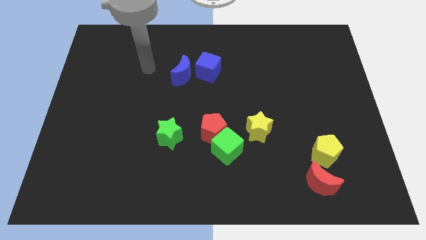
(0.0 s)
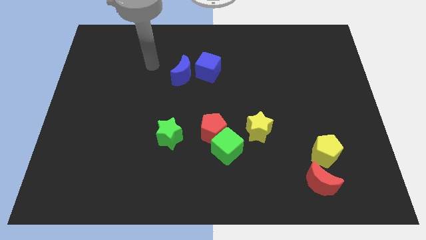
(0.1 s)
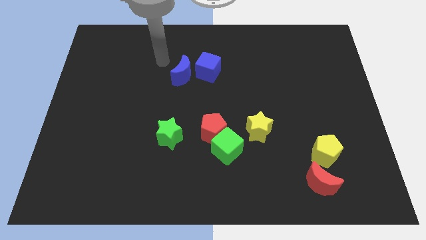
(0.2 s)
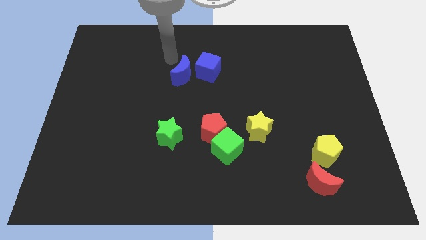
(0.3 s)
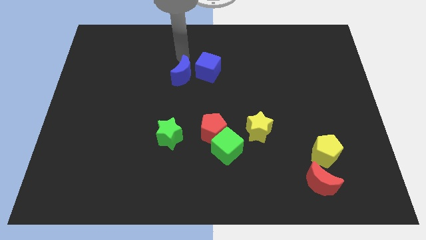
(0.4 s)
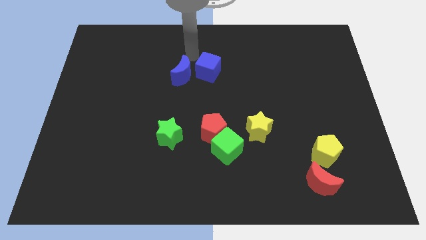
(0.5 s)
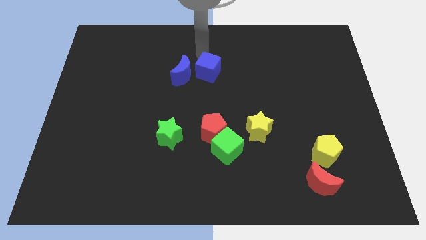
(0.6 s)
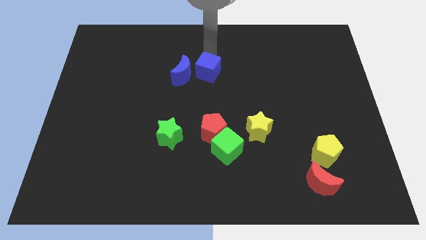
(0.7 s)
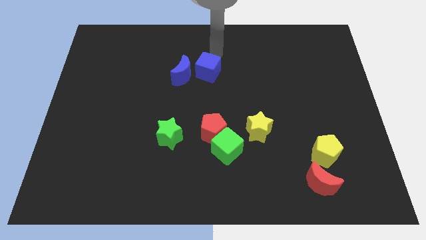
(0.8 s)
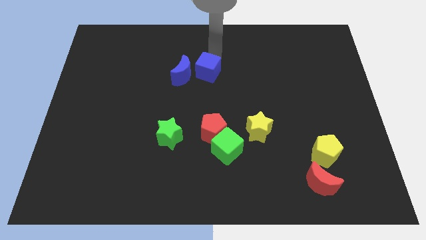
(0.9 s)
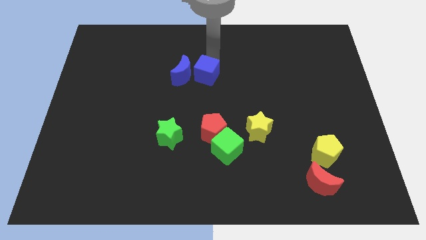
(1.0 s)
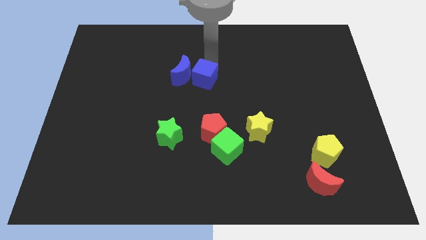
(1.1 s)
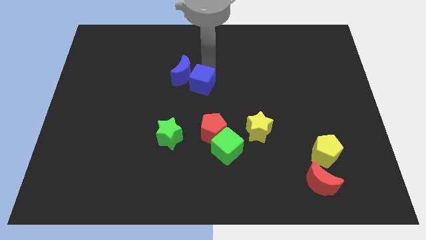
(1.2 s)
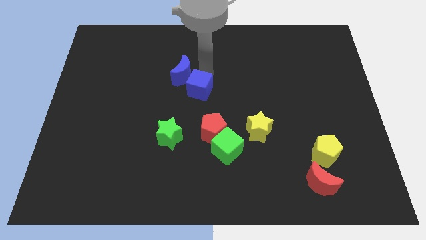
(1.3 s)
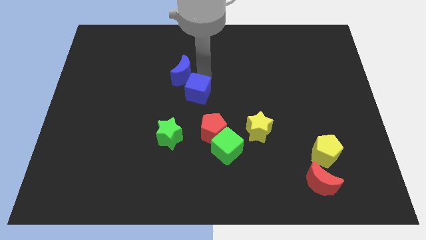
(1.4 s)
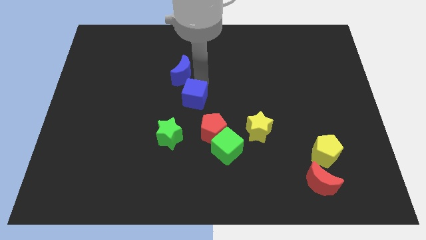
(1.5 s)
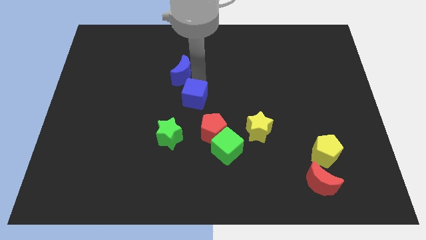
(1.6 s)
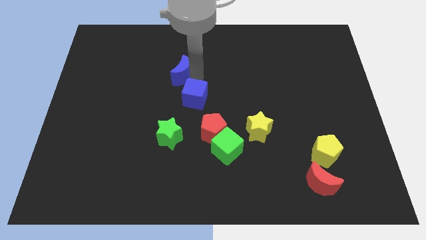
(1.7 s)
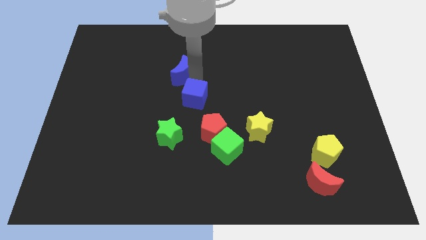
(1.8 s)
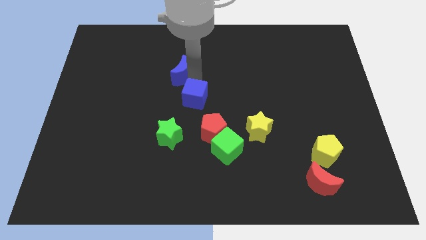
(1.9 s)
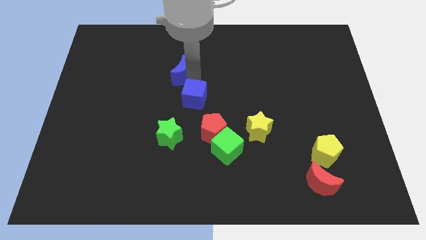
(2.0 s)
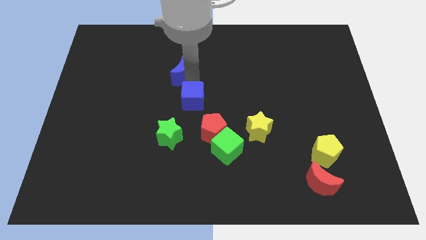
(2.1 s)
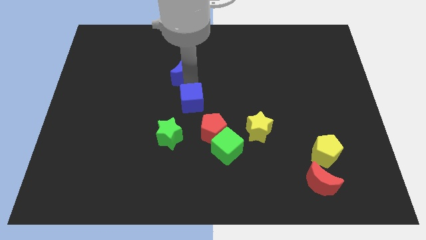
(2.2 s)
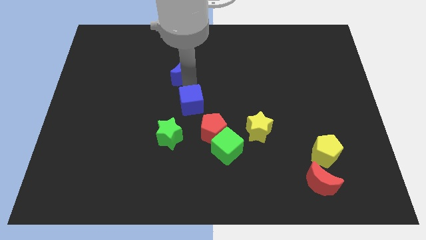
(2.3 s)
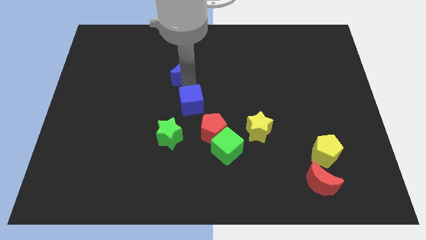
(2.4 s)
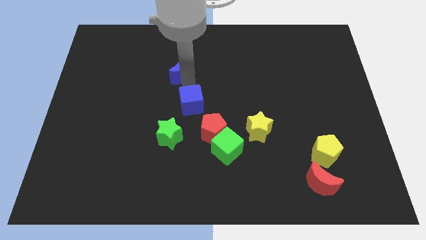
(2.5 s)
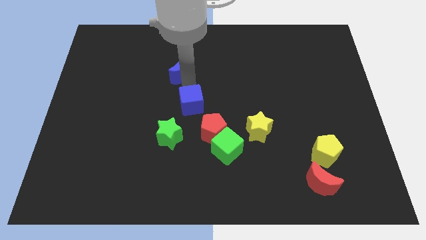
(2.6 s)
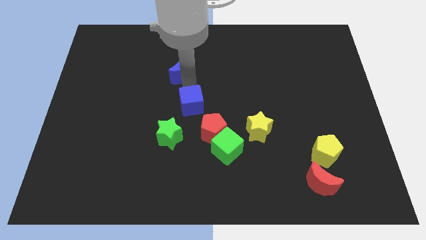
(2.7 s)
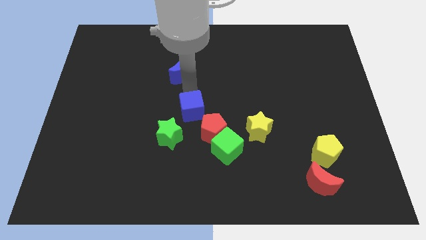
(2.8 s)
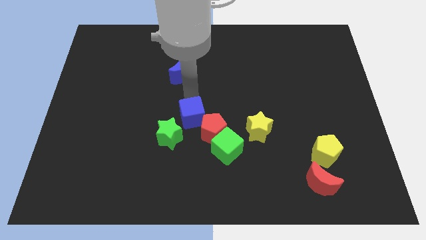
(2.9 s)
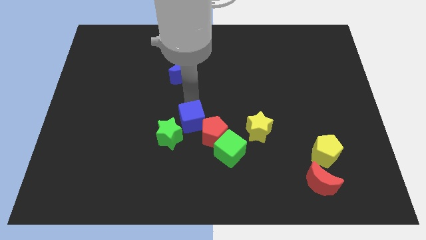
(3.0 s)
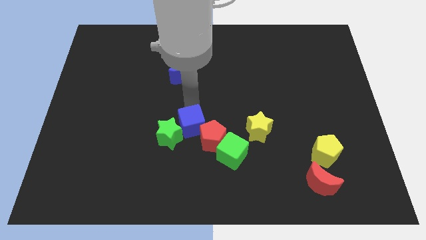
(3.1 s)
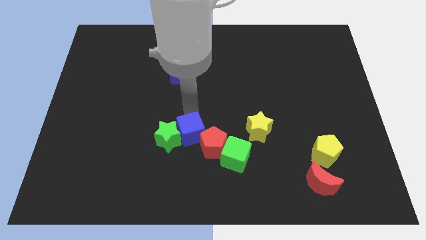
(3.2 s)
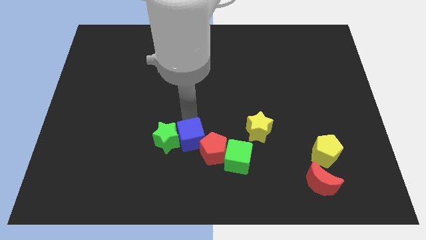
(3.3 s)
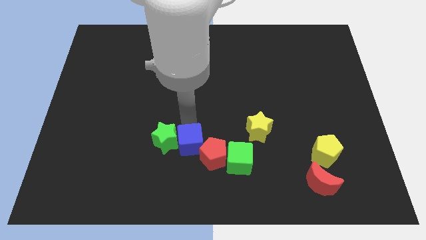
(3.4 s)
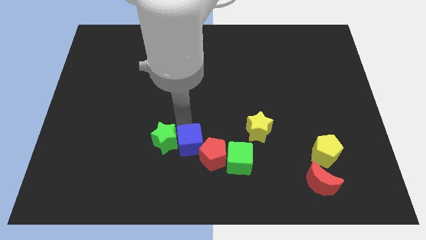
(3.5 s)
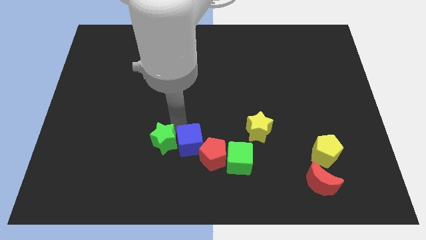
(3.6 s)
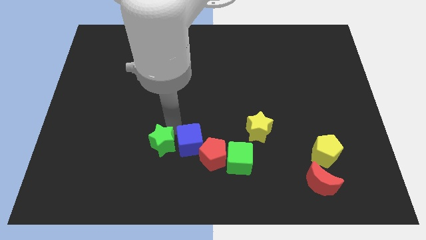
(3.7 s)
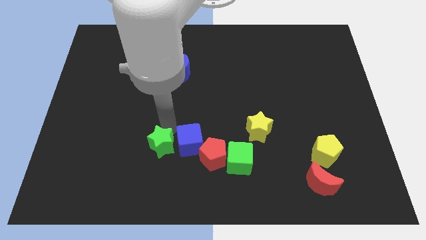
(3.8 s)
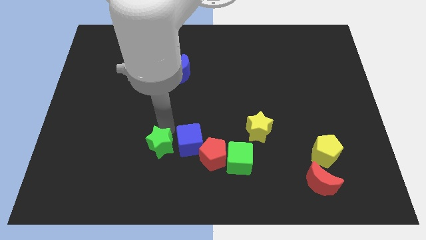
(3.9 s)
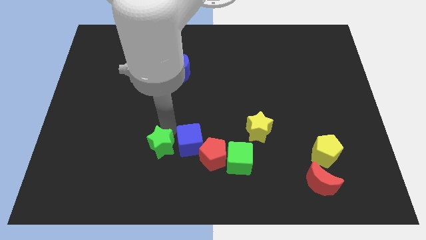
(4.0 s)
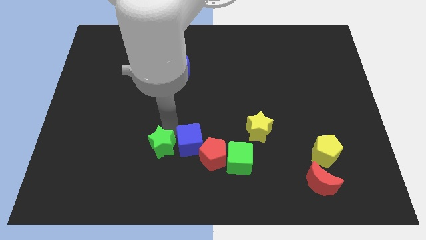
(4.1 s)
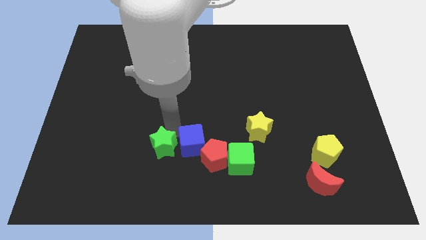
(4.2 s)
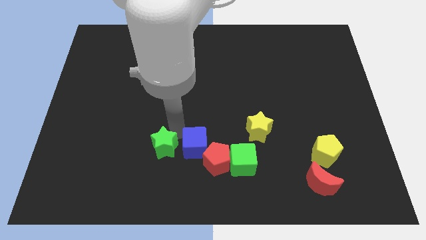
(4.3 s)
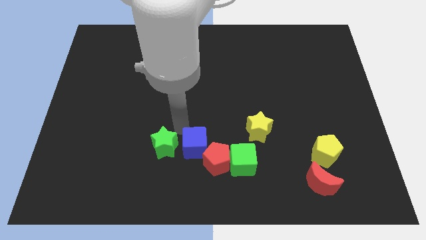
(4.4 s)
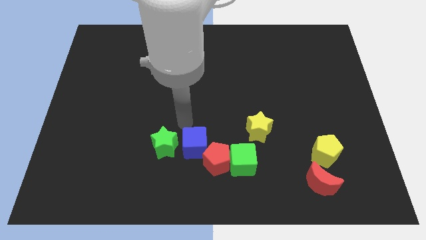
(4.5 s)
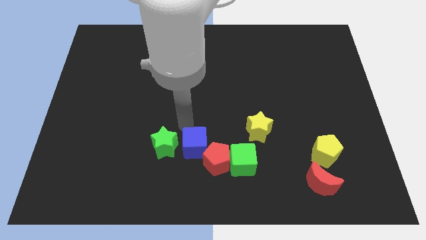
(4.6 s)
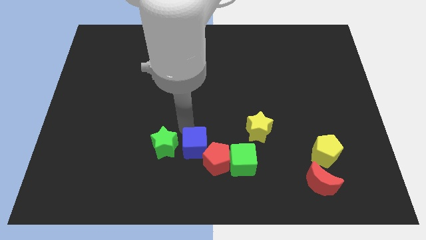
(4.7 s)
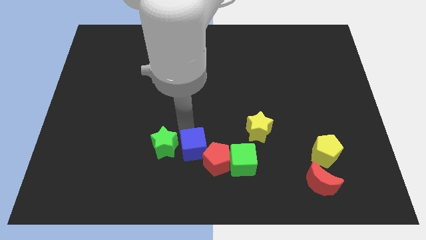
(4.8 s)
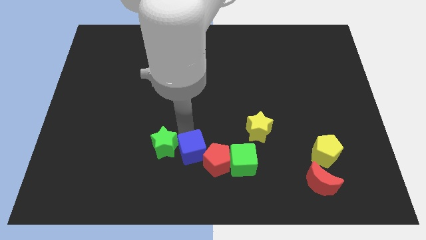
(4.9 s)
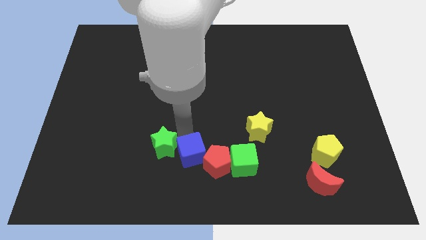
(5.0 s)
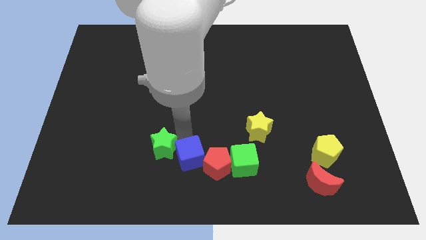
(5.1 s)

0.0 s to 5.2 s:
move the blue cube to the bottom

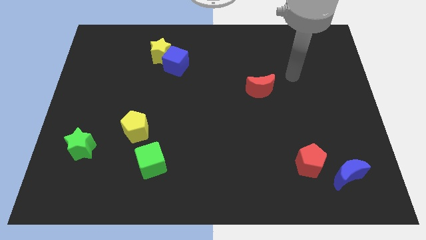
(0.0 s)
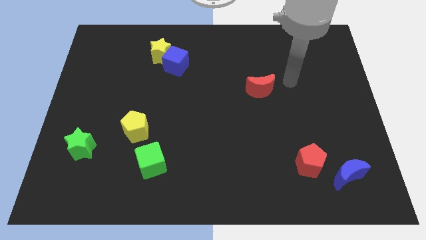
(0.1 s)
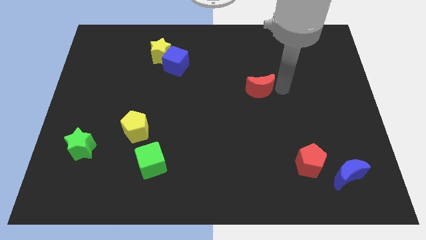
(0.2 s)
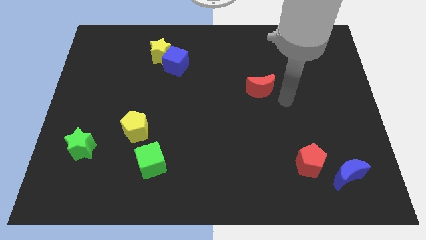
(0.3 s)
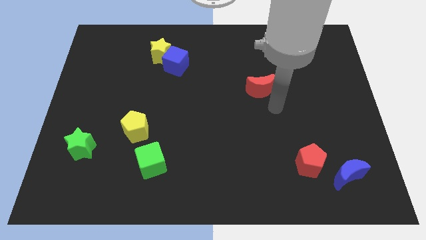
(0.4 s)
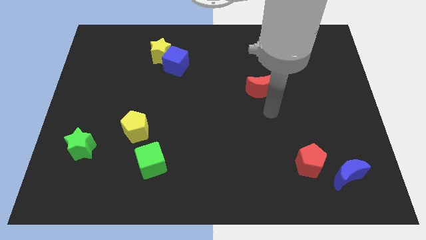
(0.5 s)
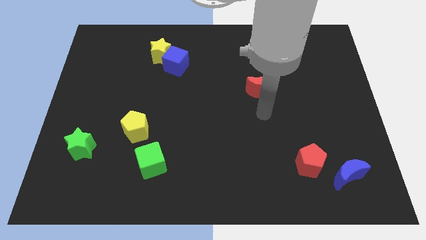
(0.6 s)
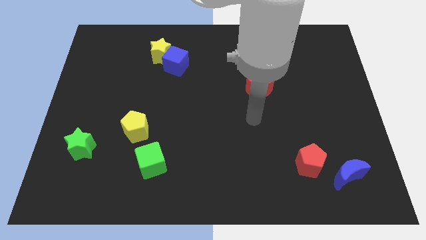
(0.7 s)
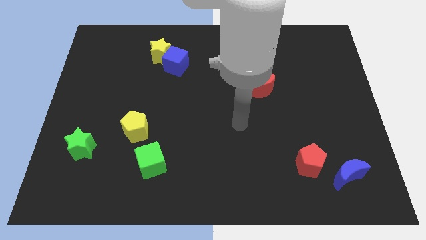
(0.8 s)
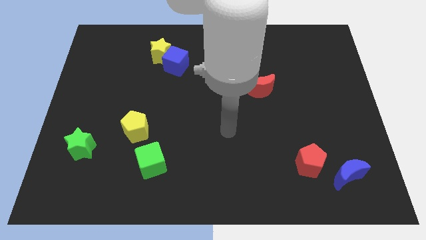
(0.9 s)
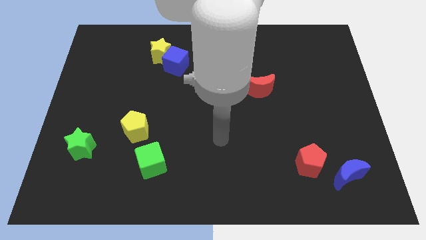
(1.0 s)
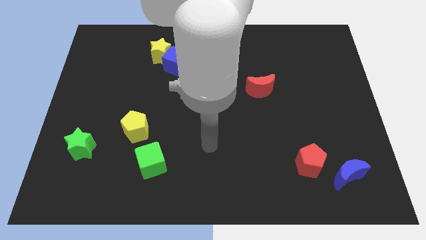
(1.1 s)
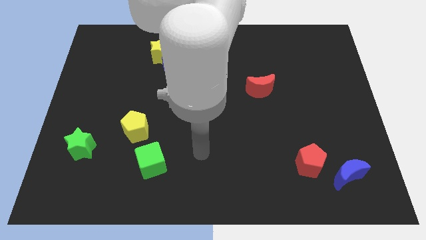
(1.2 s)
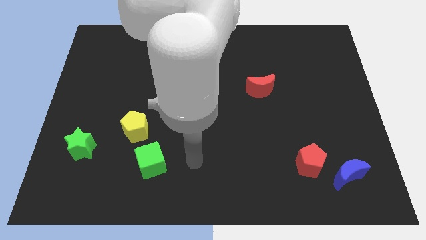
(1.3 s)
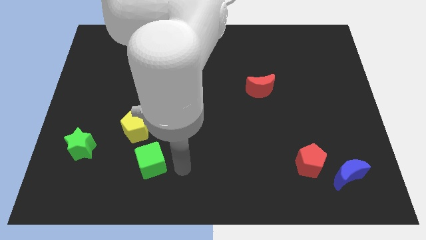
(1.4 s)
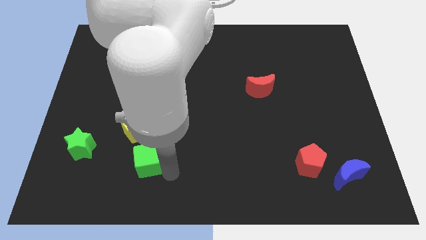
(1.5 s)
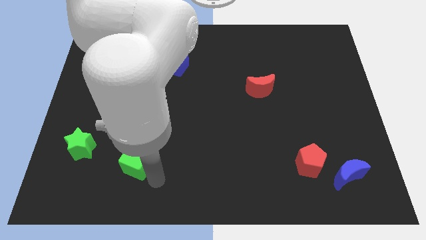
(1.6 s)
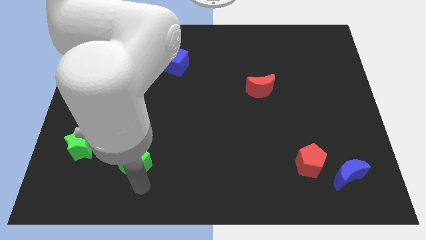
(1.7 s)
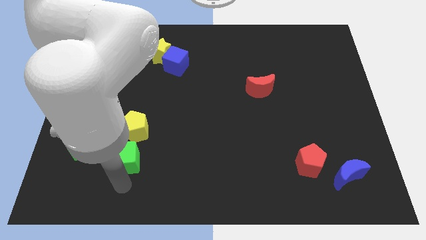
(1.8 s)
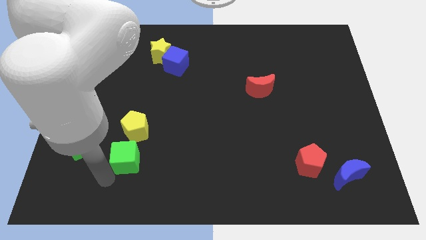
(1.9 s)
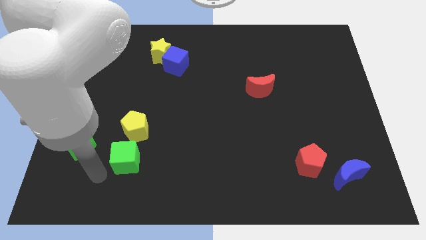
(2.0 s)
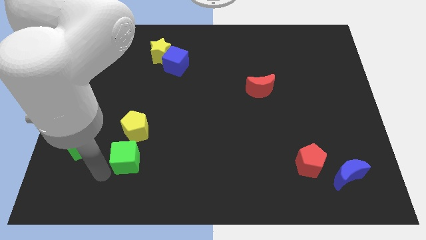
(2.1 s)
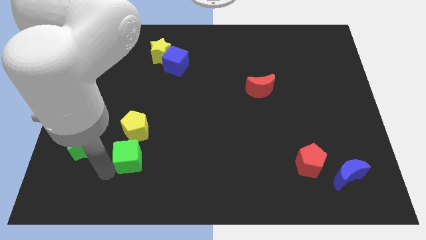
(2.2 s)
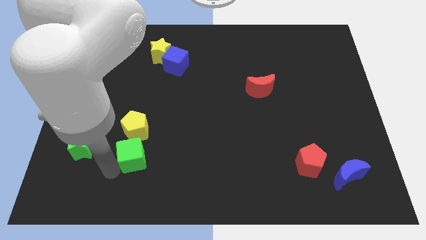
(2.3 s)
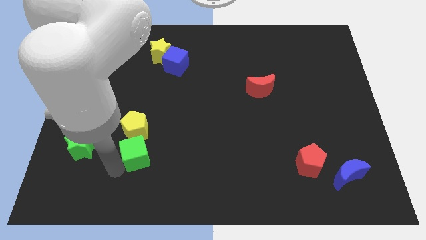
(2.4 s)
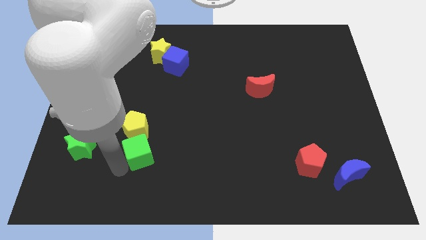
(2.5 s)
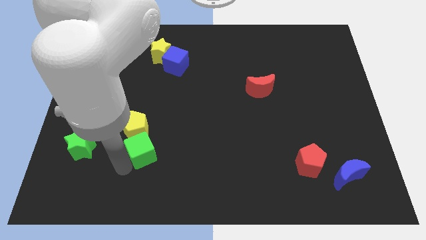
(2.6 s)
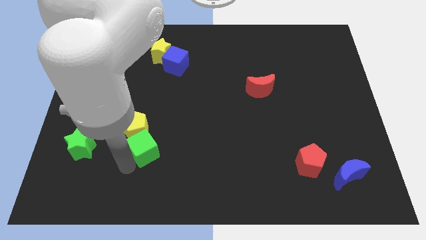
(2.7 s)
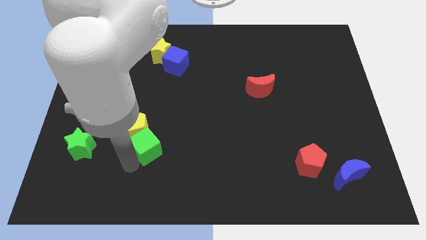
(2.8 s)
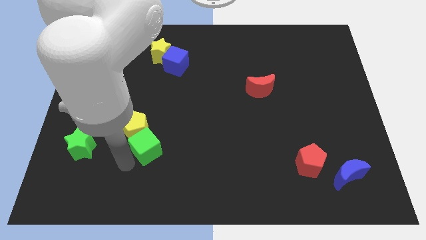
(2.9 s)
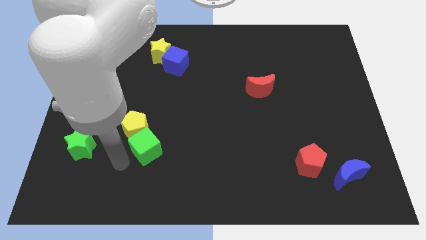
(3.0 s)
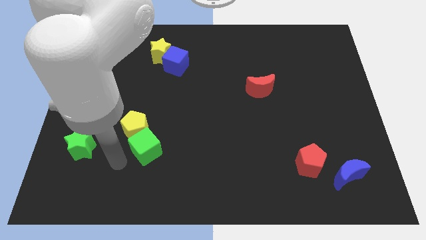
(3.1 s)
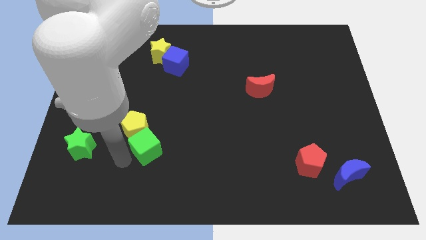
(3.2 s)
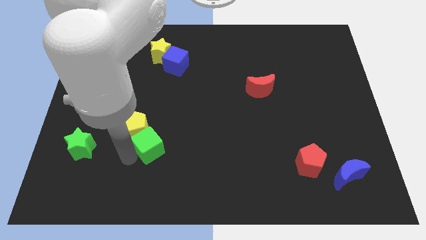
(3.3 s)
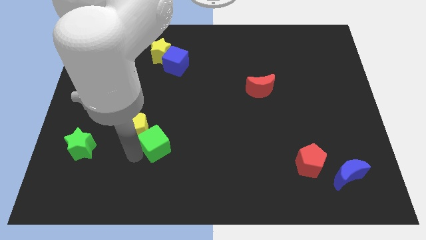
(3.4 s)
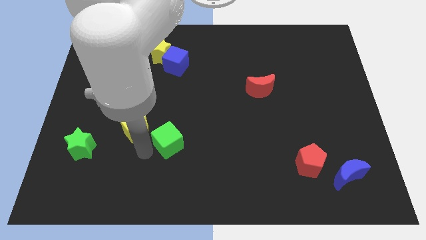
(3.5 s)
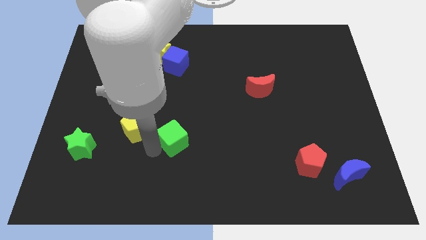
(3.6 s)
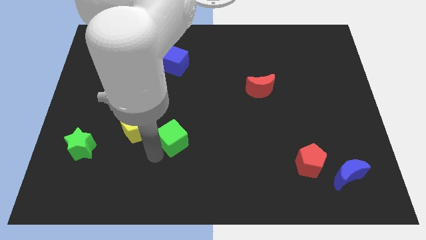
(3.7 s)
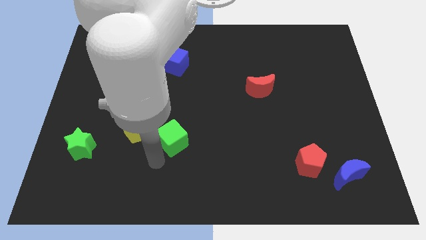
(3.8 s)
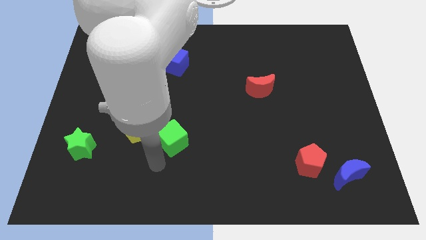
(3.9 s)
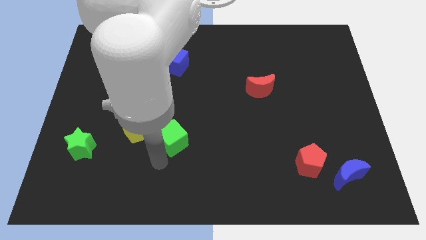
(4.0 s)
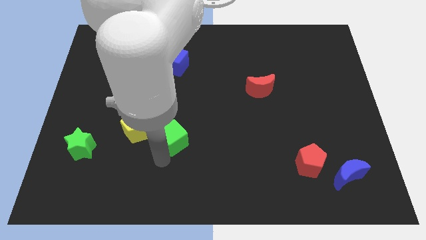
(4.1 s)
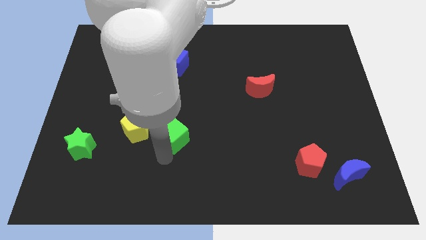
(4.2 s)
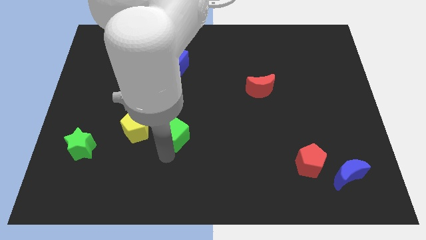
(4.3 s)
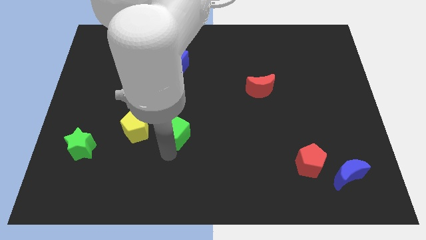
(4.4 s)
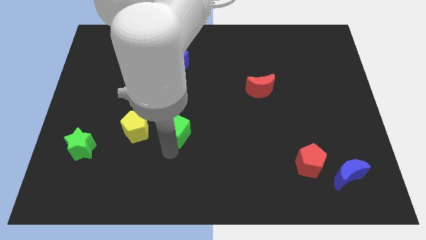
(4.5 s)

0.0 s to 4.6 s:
move the green cube to the middle
